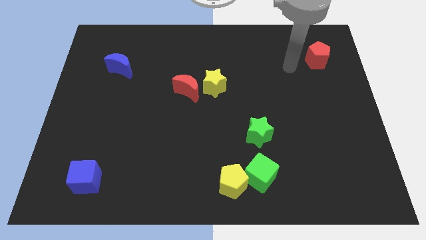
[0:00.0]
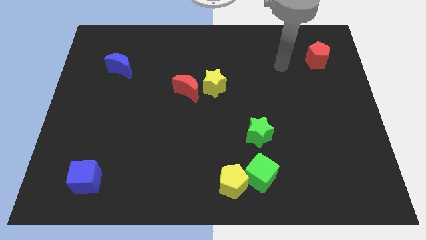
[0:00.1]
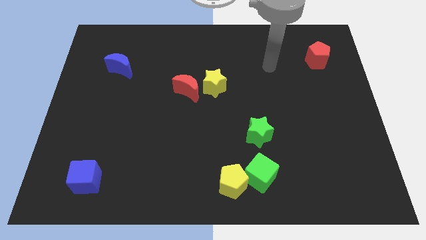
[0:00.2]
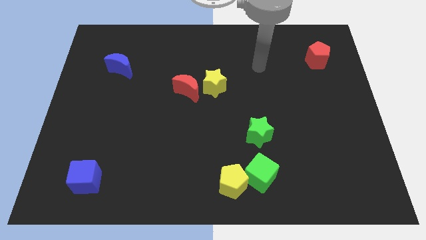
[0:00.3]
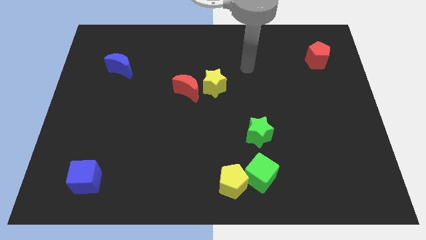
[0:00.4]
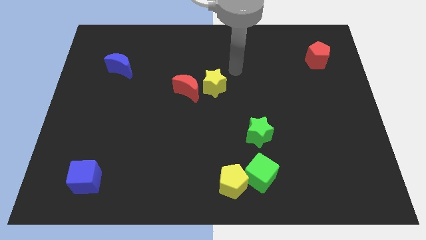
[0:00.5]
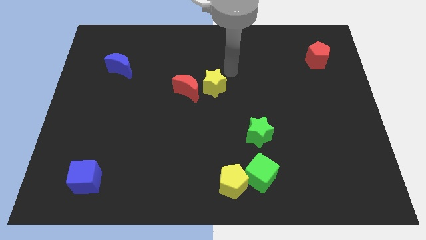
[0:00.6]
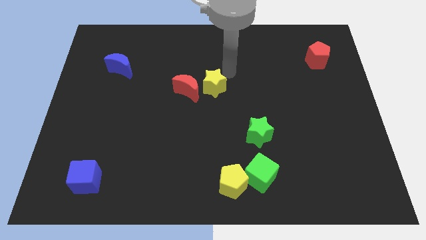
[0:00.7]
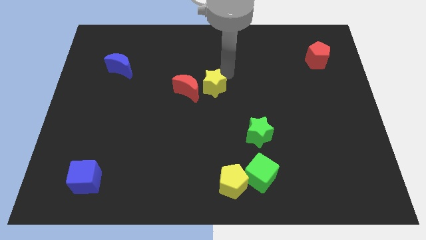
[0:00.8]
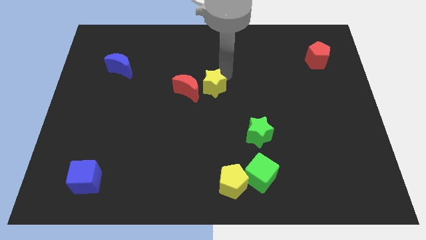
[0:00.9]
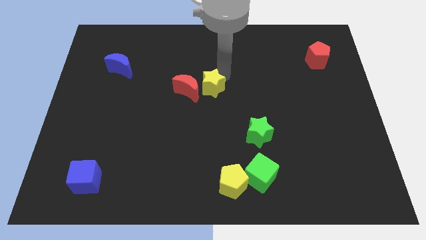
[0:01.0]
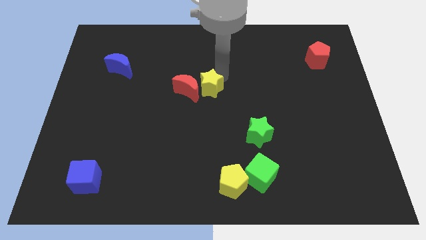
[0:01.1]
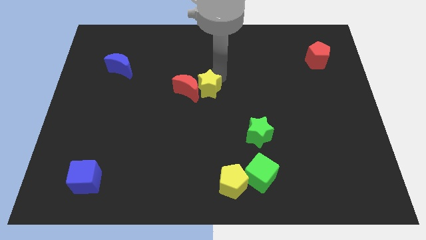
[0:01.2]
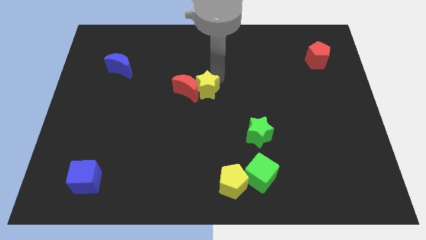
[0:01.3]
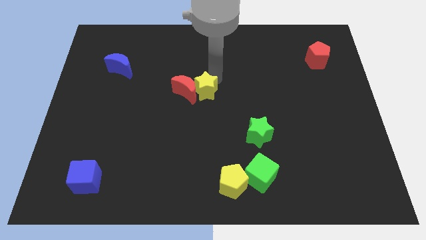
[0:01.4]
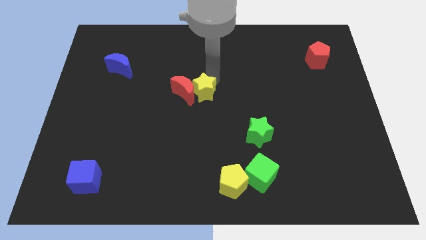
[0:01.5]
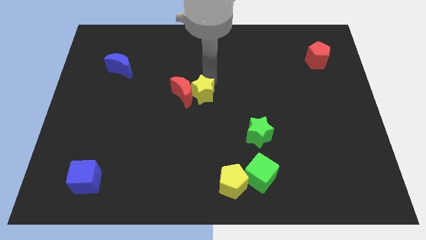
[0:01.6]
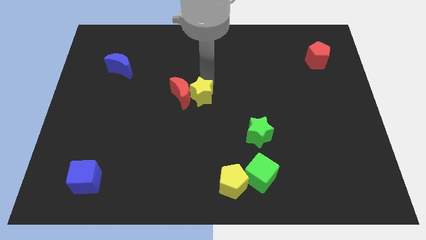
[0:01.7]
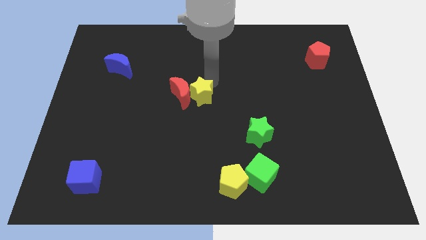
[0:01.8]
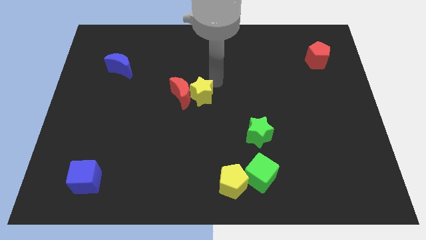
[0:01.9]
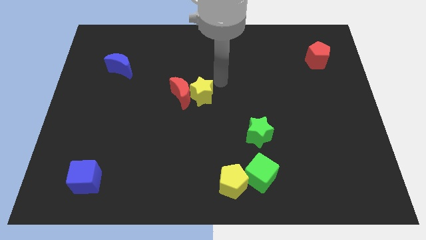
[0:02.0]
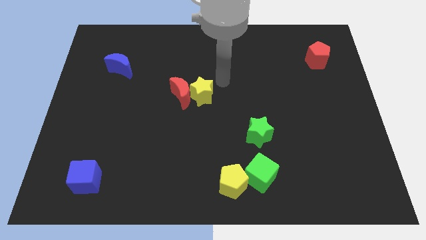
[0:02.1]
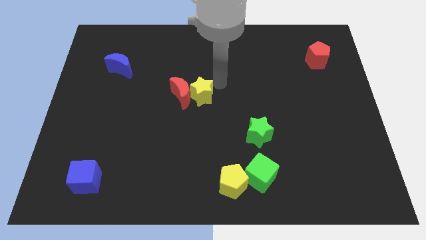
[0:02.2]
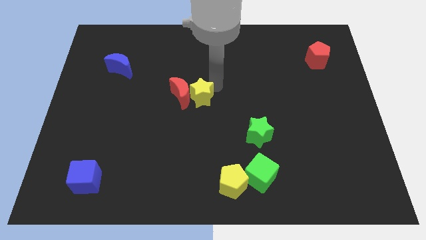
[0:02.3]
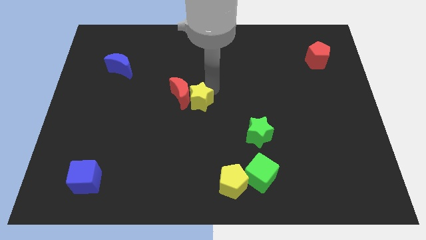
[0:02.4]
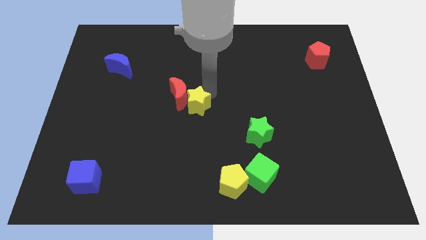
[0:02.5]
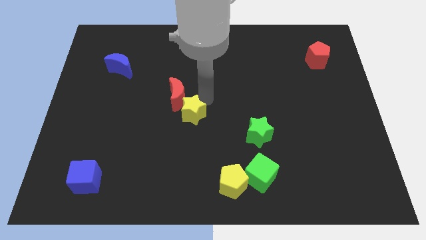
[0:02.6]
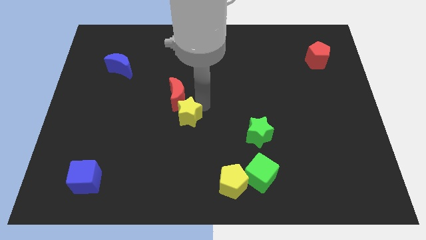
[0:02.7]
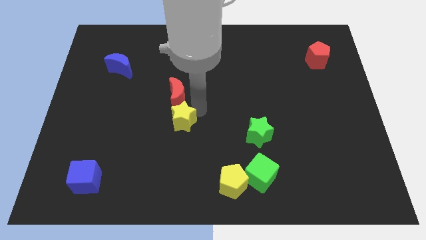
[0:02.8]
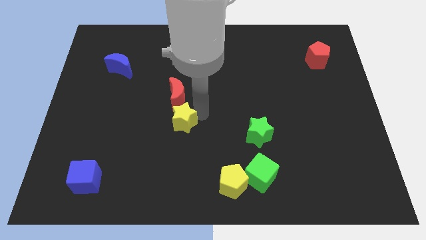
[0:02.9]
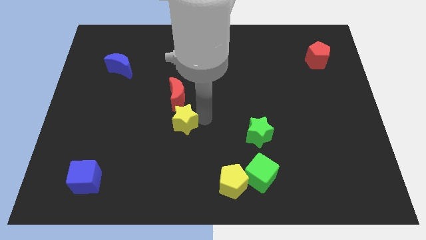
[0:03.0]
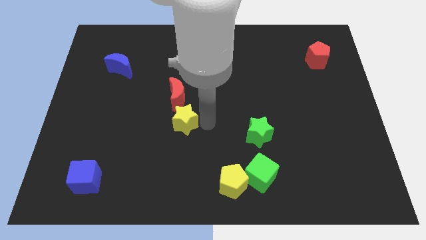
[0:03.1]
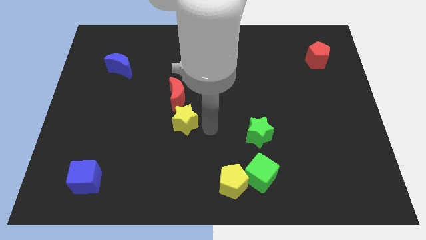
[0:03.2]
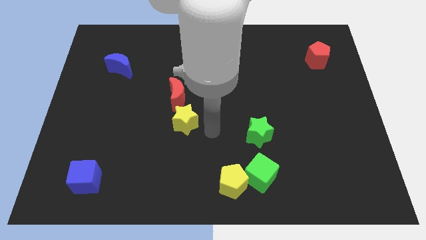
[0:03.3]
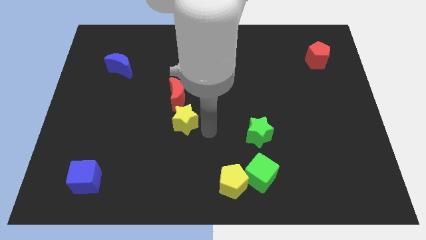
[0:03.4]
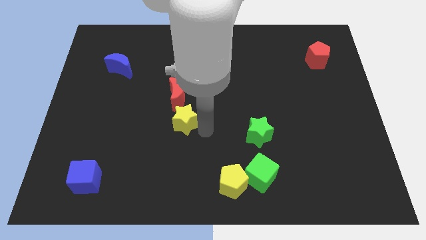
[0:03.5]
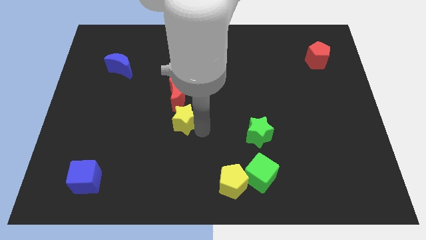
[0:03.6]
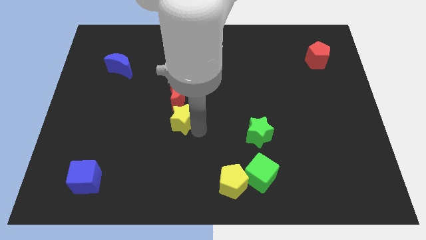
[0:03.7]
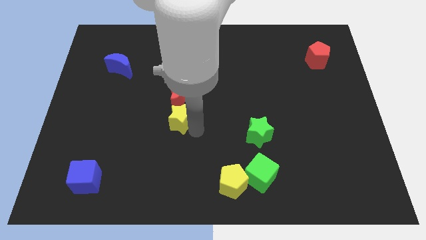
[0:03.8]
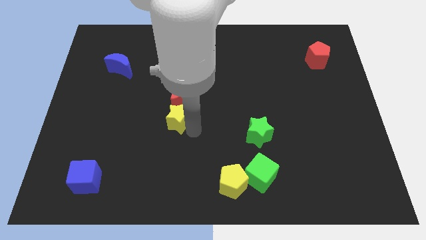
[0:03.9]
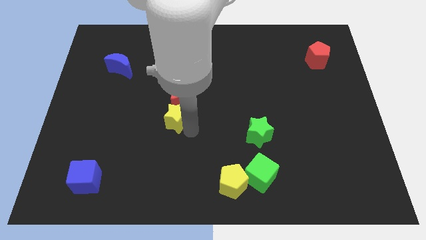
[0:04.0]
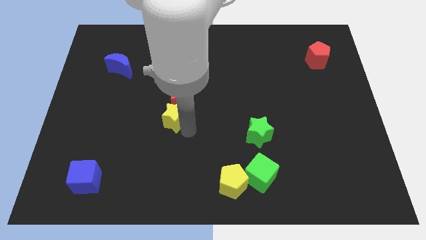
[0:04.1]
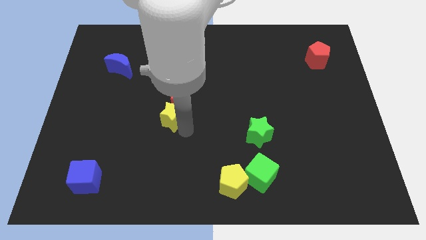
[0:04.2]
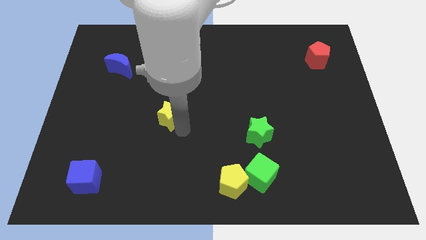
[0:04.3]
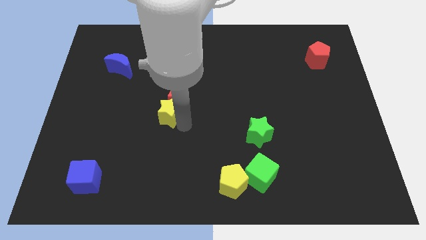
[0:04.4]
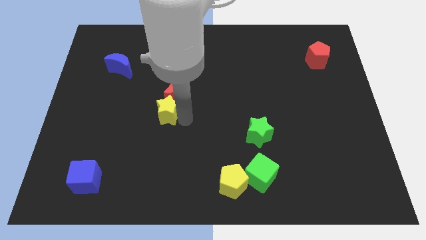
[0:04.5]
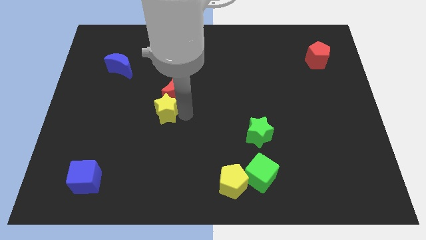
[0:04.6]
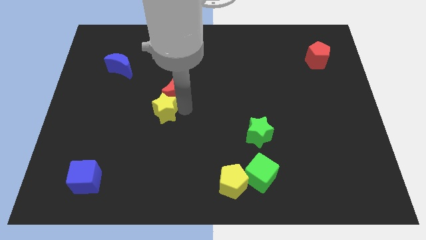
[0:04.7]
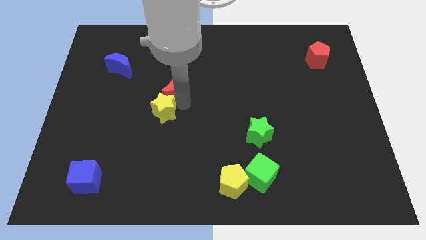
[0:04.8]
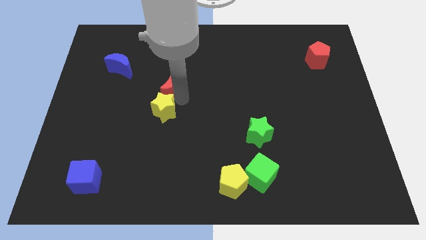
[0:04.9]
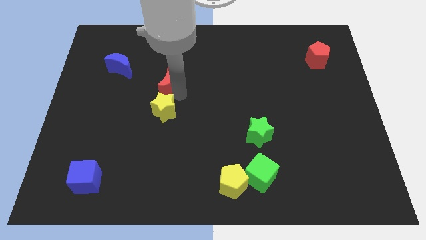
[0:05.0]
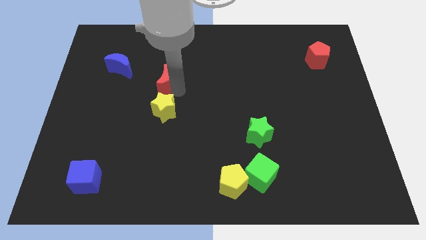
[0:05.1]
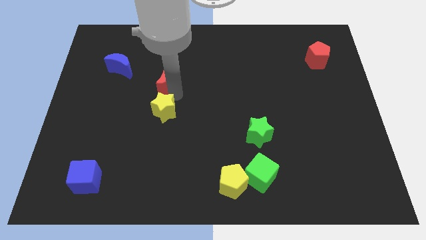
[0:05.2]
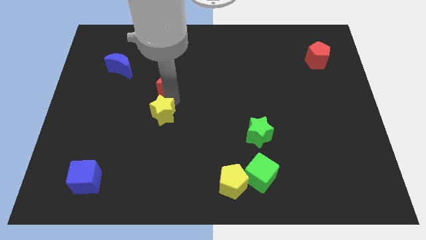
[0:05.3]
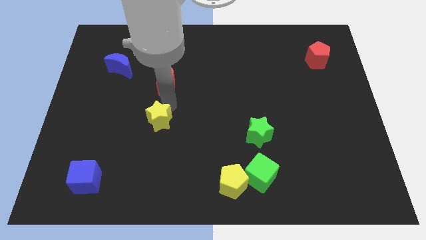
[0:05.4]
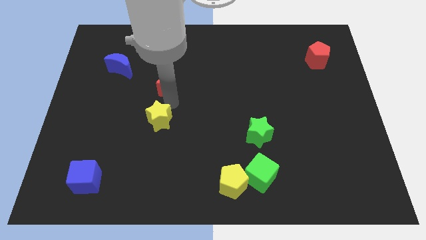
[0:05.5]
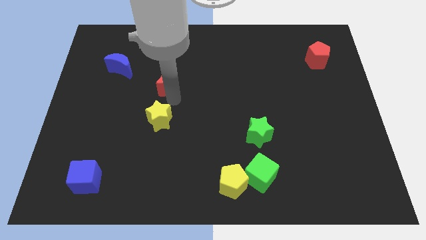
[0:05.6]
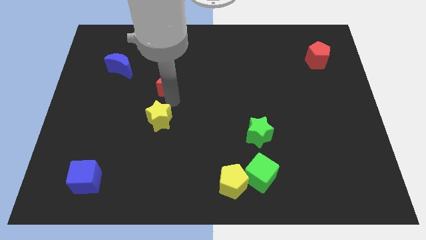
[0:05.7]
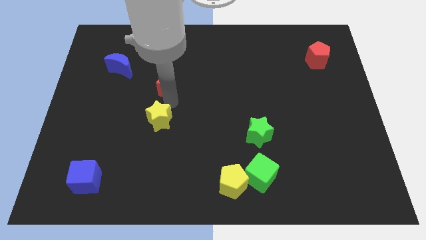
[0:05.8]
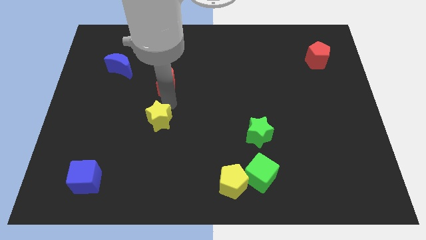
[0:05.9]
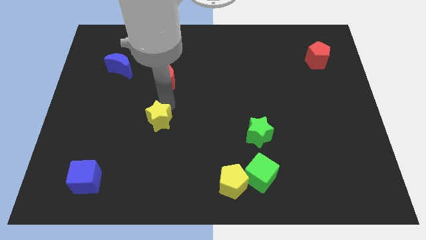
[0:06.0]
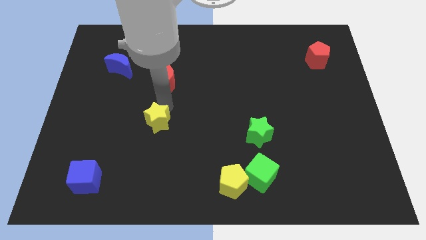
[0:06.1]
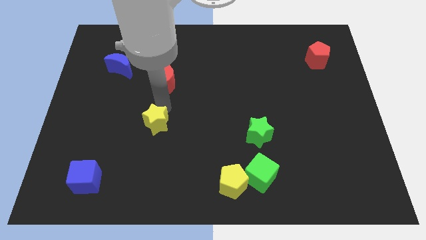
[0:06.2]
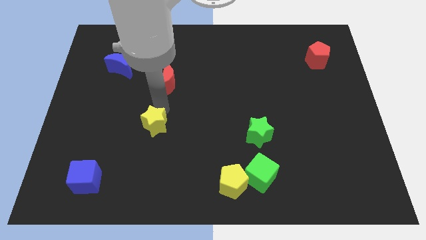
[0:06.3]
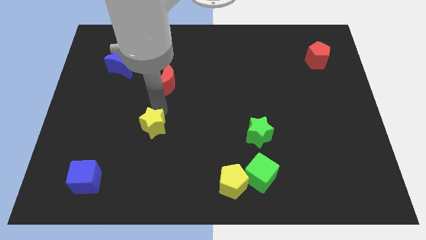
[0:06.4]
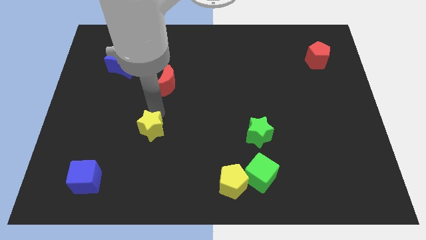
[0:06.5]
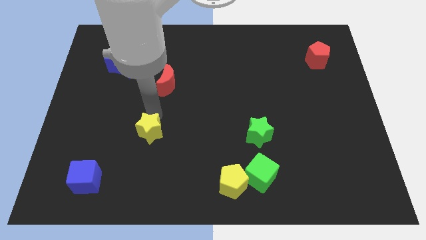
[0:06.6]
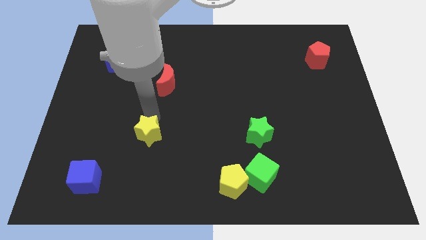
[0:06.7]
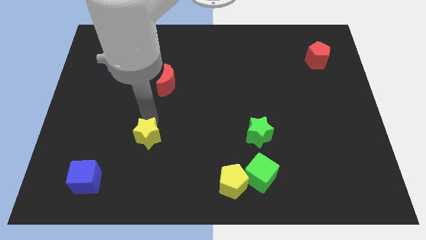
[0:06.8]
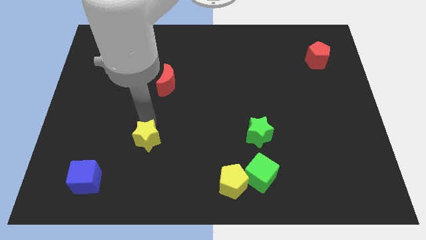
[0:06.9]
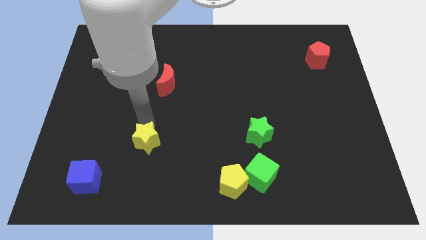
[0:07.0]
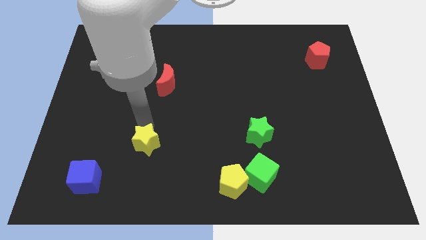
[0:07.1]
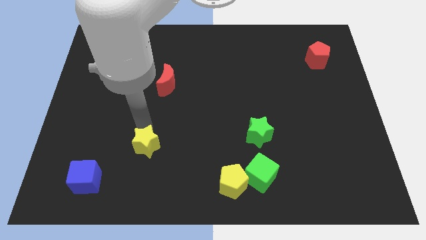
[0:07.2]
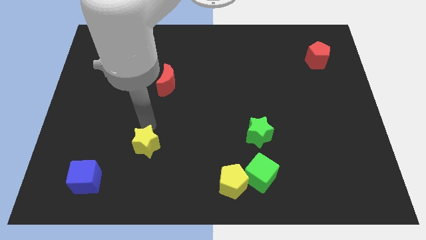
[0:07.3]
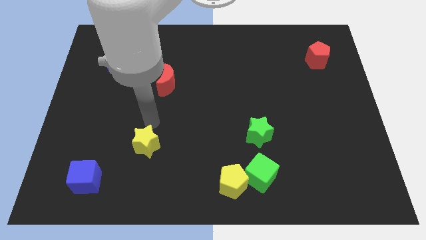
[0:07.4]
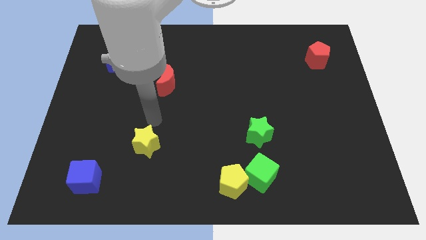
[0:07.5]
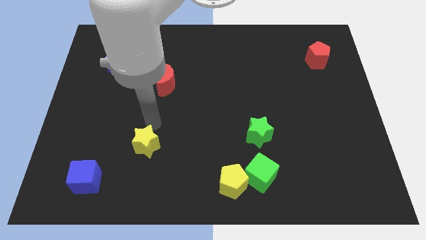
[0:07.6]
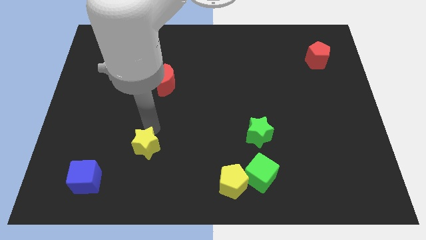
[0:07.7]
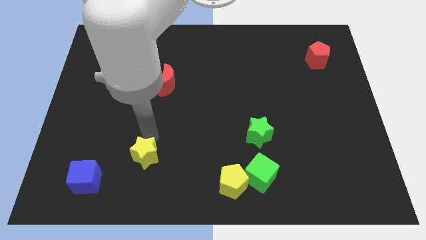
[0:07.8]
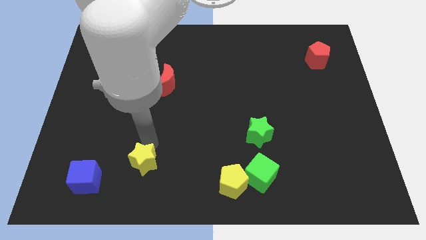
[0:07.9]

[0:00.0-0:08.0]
slide the yellow star right of the blue cube
